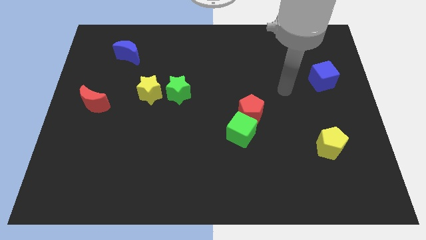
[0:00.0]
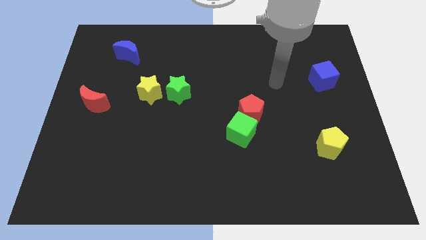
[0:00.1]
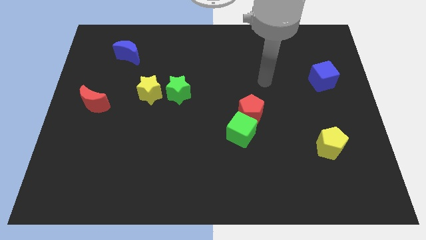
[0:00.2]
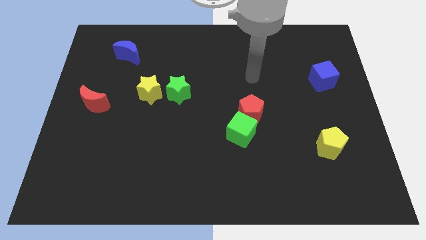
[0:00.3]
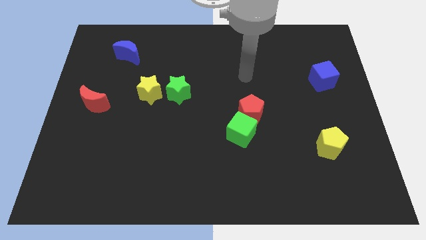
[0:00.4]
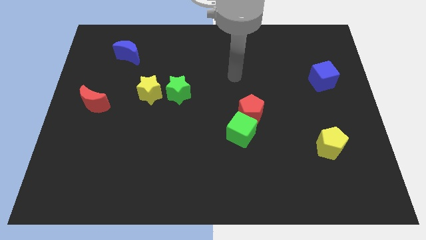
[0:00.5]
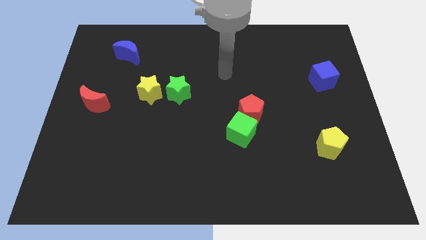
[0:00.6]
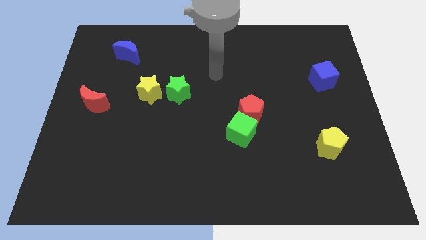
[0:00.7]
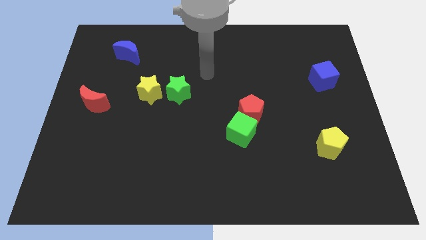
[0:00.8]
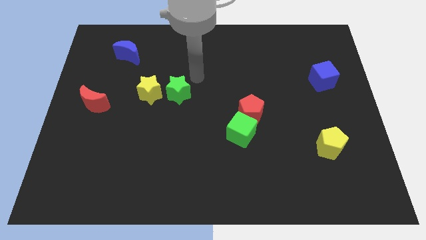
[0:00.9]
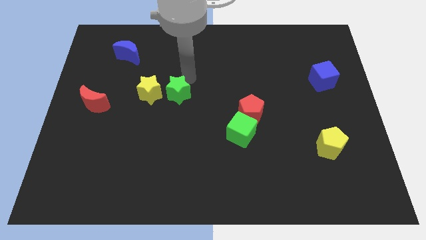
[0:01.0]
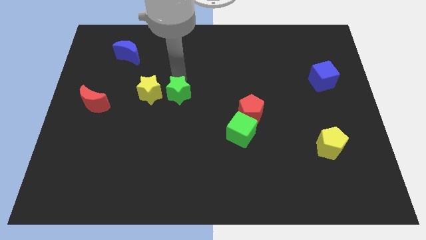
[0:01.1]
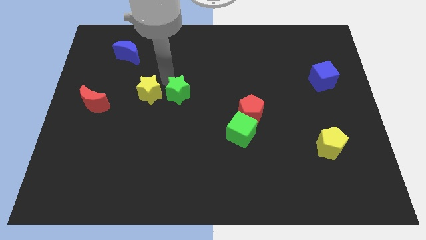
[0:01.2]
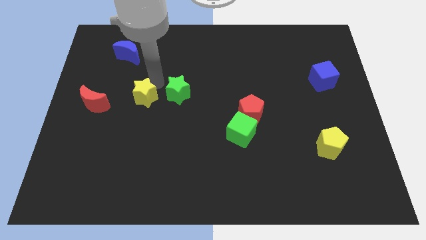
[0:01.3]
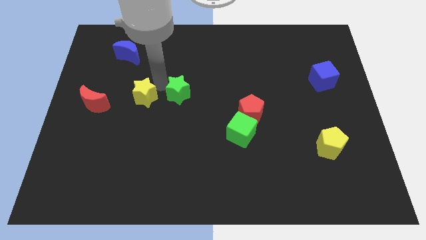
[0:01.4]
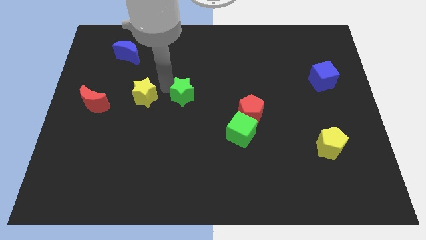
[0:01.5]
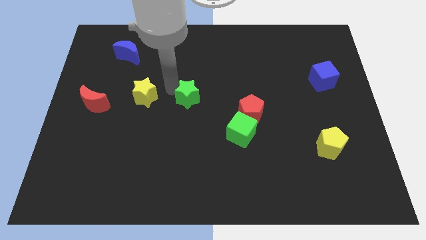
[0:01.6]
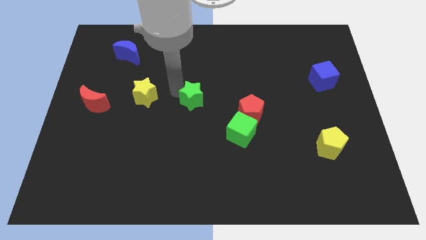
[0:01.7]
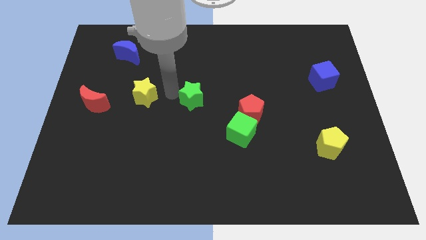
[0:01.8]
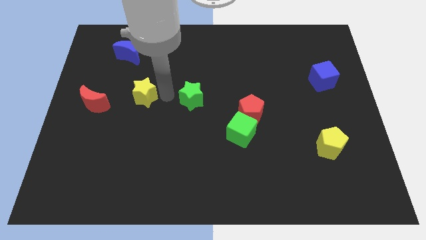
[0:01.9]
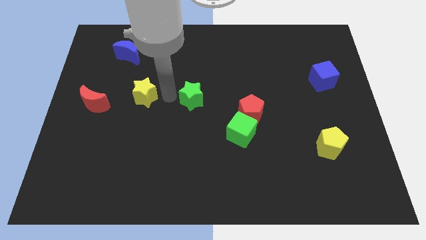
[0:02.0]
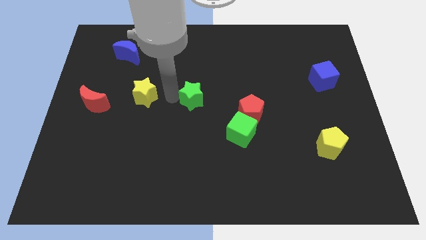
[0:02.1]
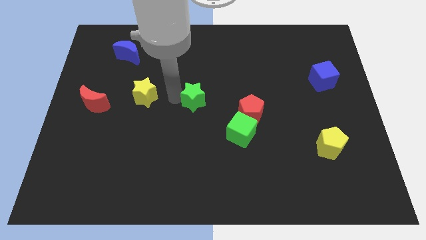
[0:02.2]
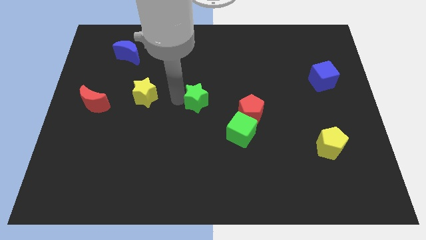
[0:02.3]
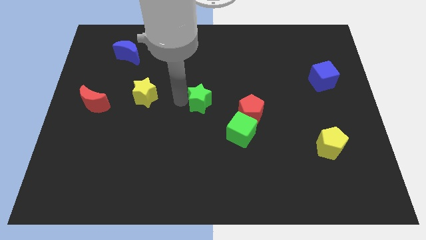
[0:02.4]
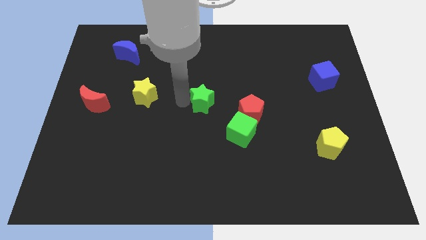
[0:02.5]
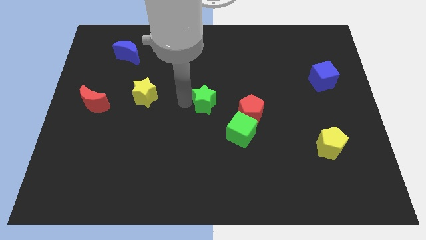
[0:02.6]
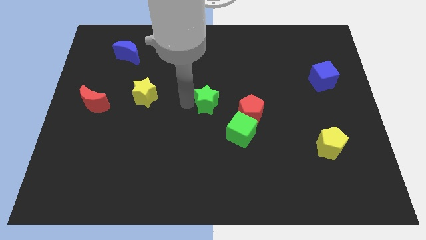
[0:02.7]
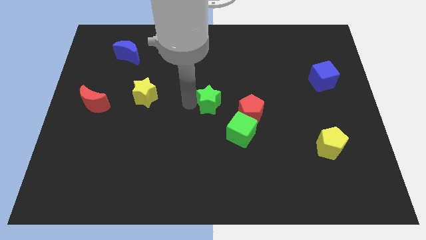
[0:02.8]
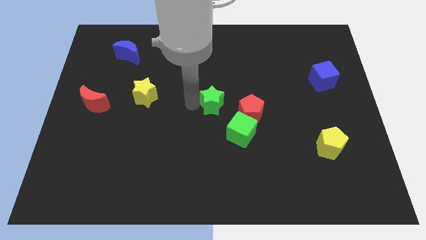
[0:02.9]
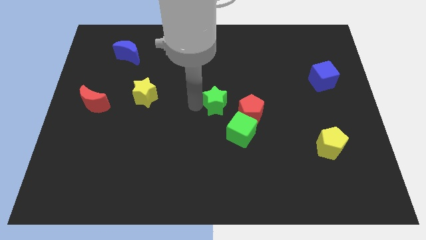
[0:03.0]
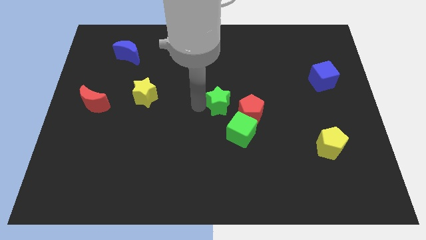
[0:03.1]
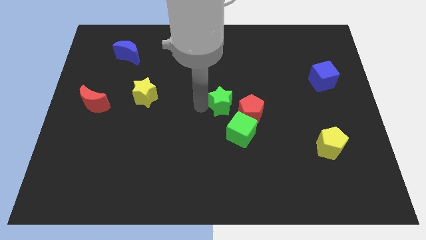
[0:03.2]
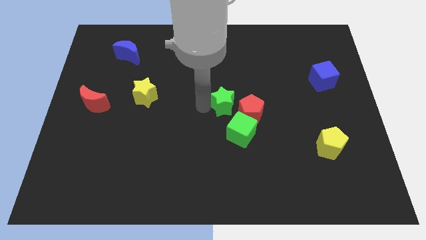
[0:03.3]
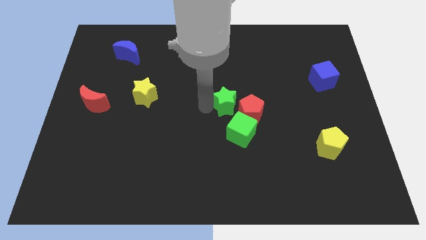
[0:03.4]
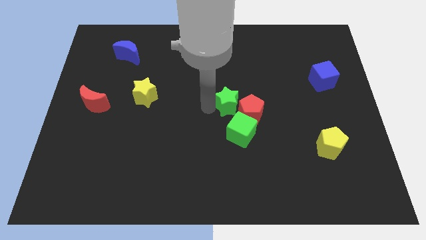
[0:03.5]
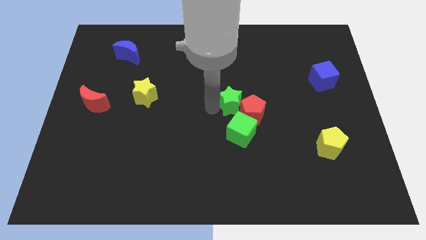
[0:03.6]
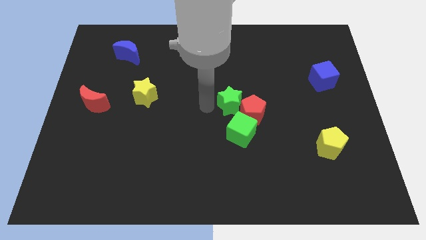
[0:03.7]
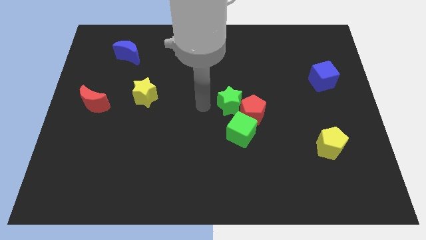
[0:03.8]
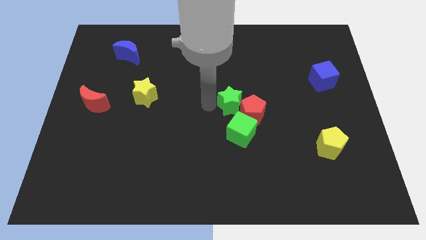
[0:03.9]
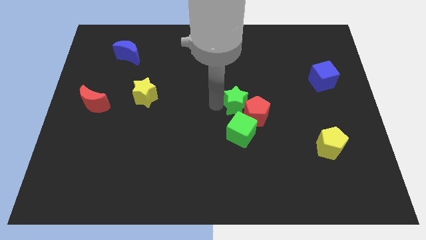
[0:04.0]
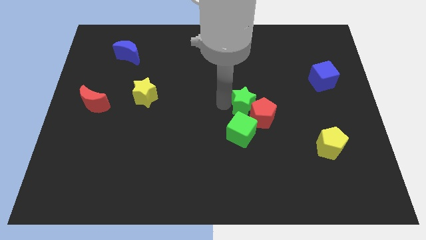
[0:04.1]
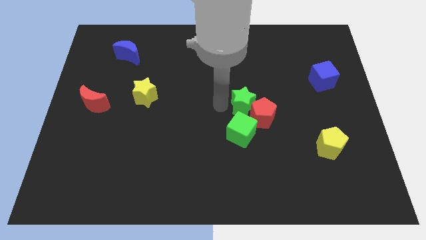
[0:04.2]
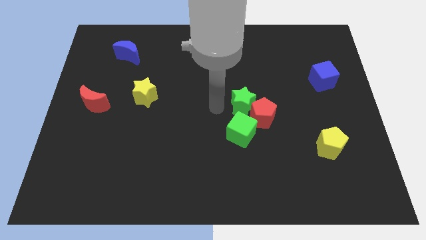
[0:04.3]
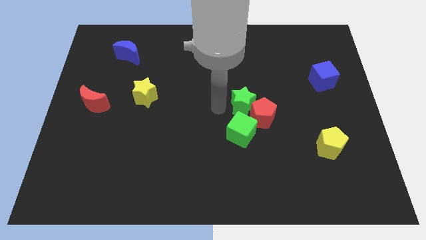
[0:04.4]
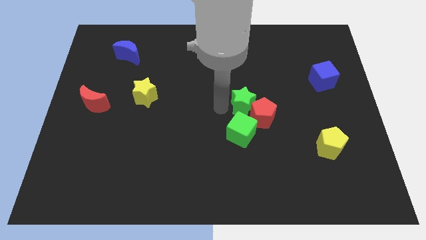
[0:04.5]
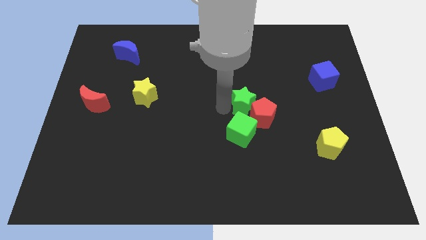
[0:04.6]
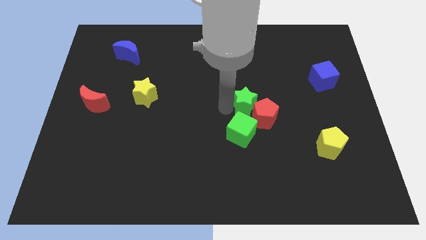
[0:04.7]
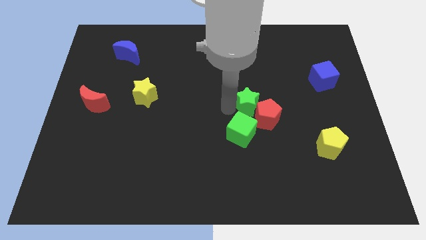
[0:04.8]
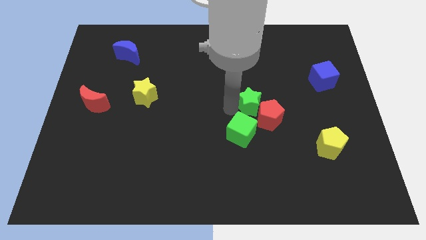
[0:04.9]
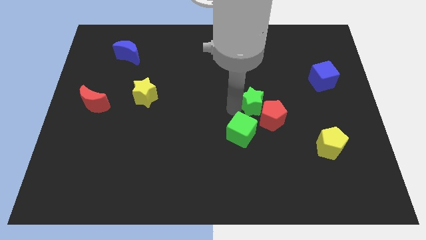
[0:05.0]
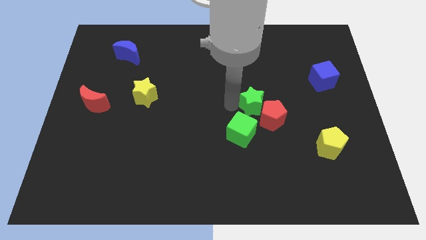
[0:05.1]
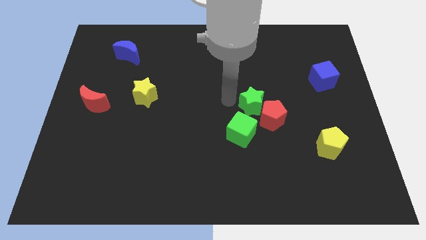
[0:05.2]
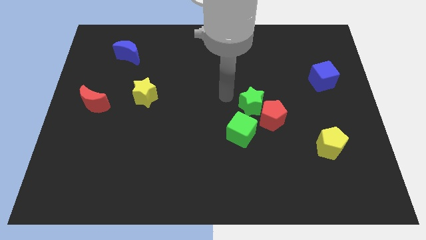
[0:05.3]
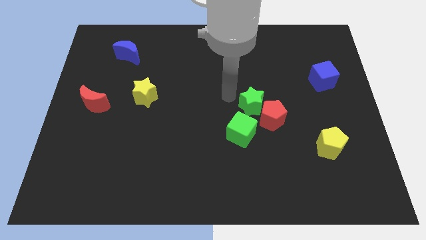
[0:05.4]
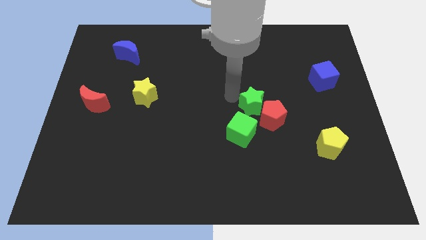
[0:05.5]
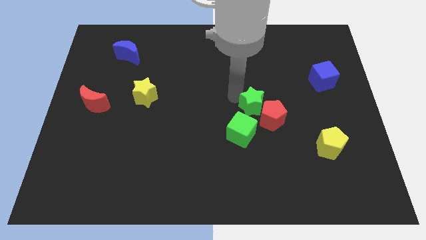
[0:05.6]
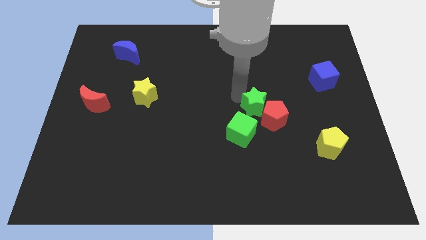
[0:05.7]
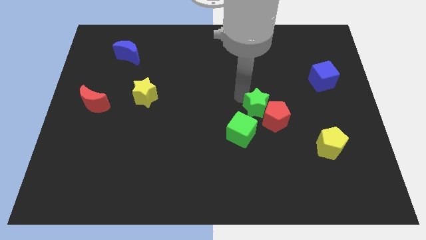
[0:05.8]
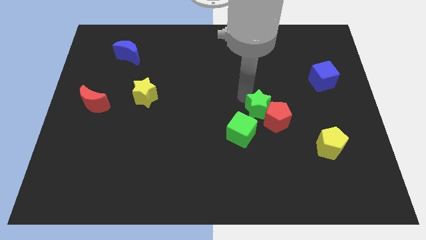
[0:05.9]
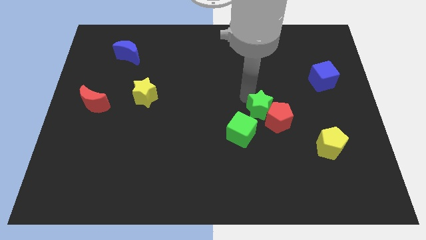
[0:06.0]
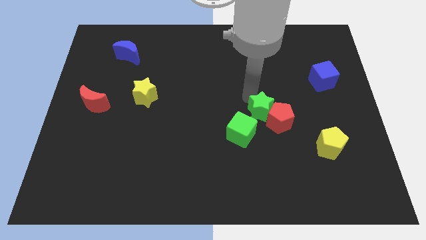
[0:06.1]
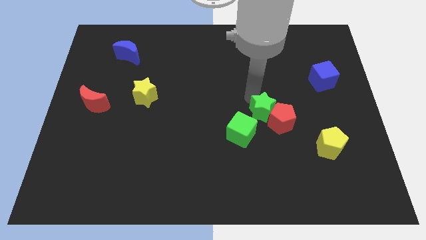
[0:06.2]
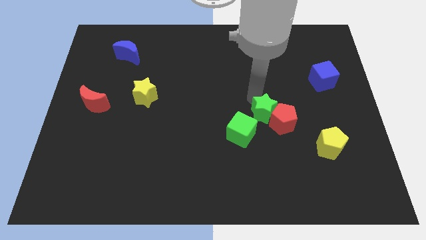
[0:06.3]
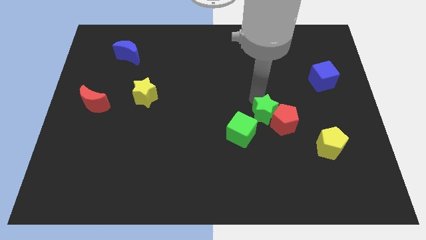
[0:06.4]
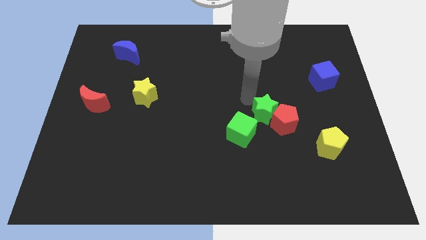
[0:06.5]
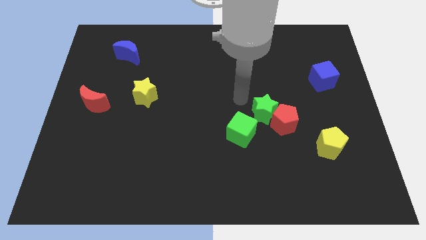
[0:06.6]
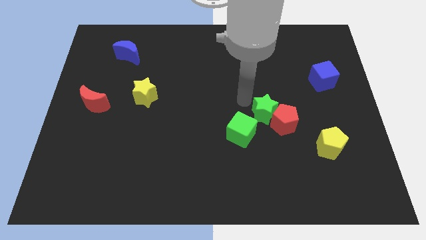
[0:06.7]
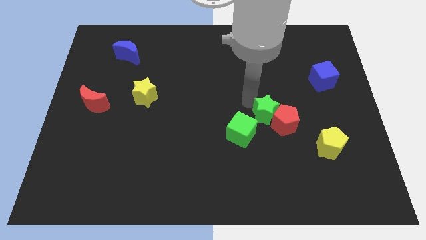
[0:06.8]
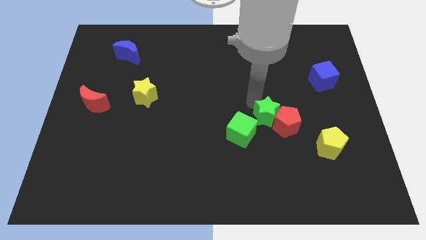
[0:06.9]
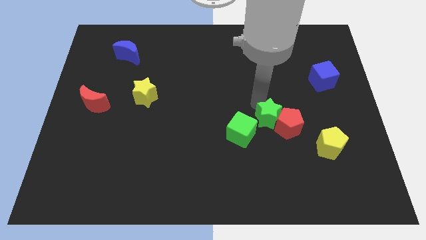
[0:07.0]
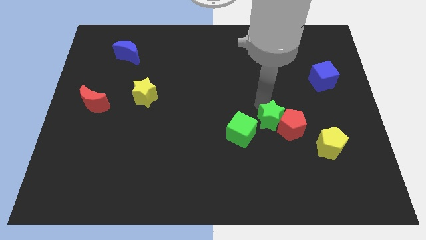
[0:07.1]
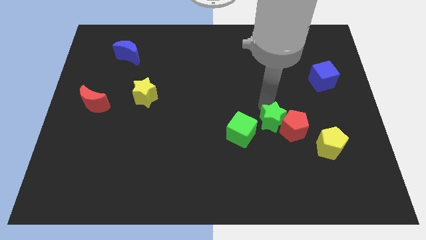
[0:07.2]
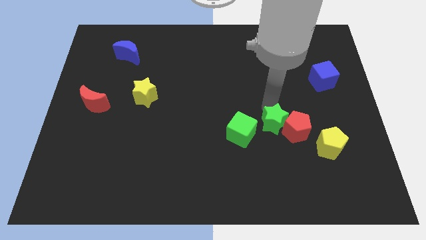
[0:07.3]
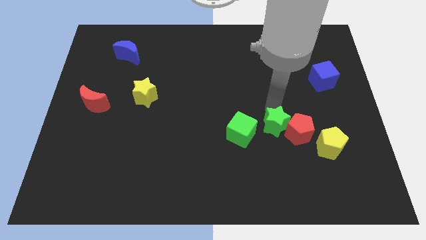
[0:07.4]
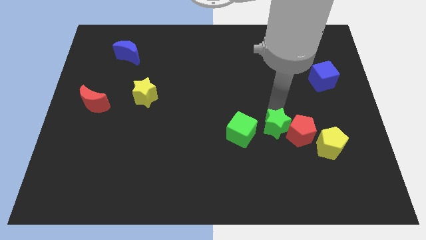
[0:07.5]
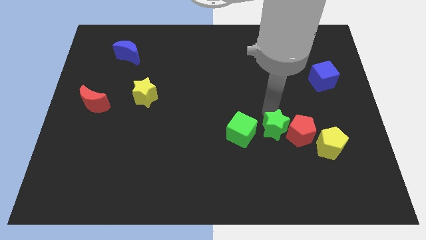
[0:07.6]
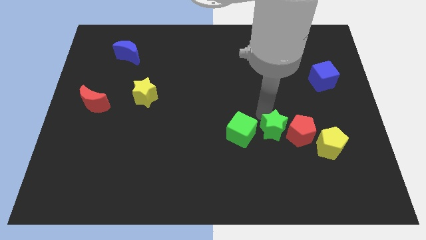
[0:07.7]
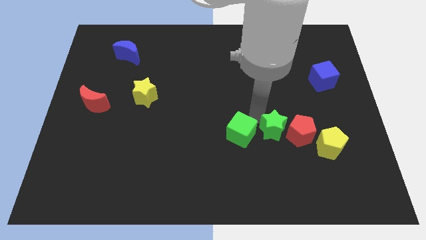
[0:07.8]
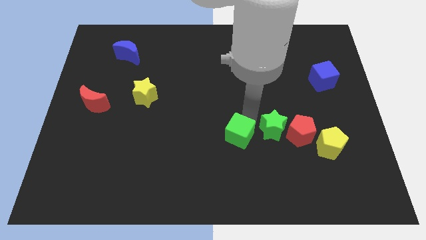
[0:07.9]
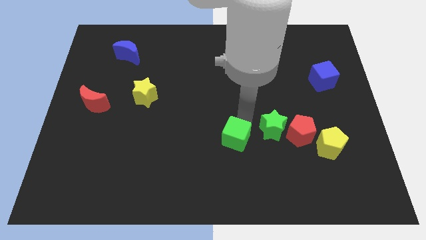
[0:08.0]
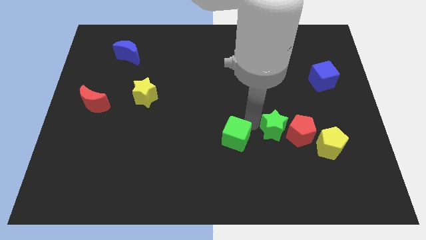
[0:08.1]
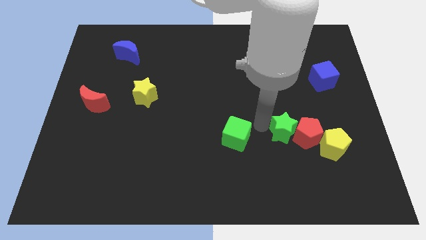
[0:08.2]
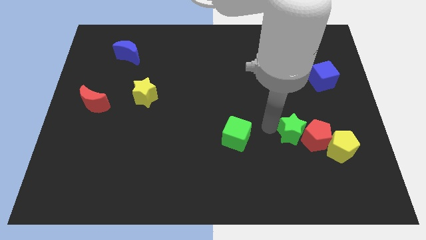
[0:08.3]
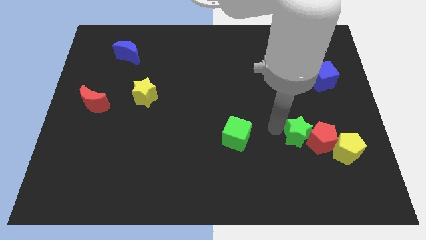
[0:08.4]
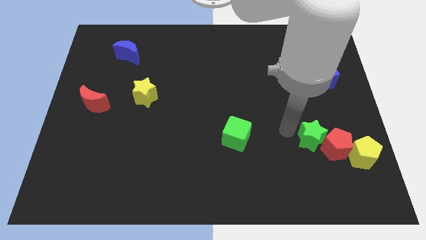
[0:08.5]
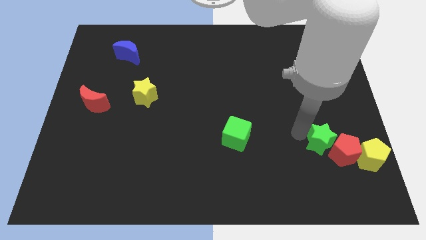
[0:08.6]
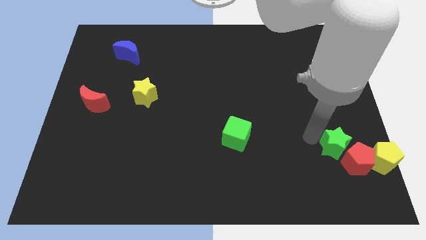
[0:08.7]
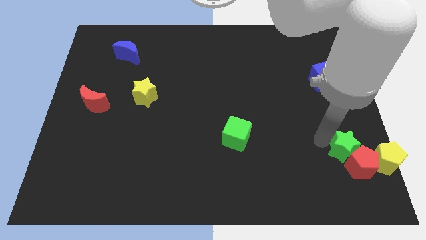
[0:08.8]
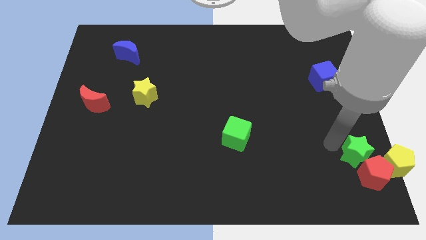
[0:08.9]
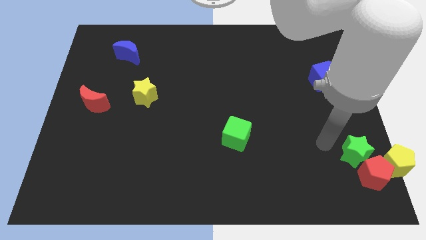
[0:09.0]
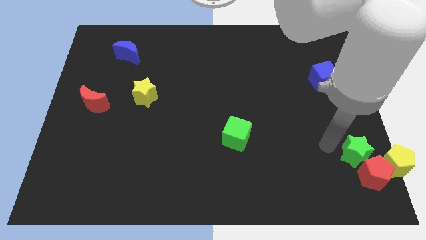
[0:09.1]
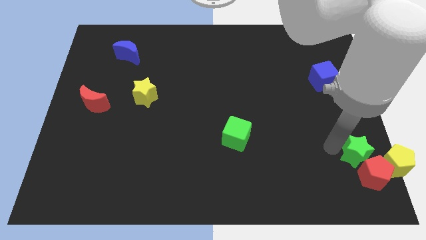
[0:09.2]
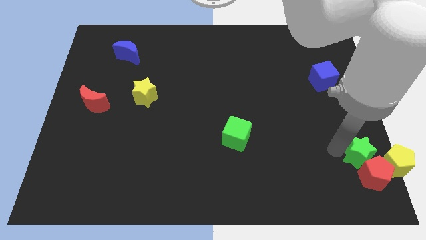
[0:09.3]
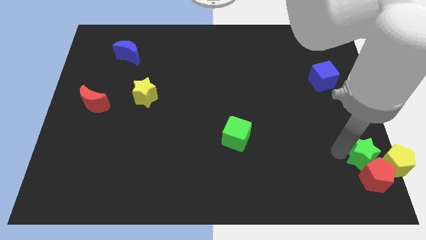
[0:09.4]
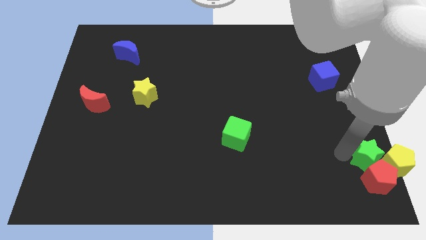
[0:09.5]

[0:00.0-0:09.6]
push the green star towards the yellow pentagon
